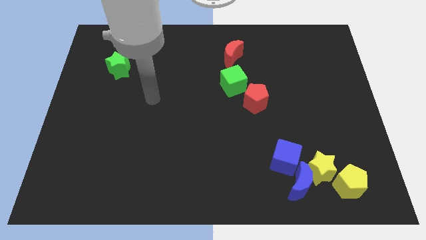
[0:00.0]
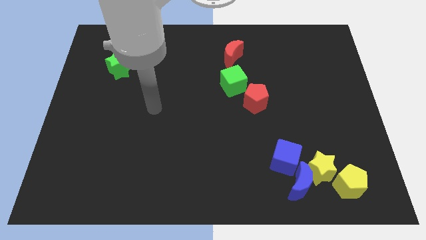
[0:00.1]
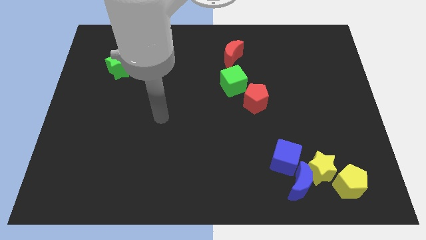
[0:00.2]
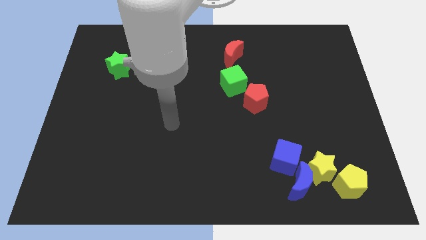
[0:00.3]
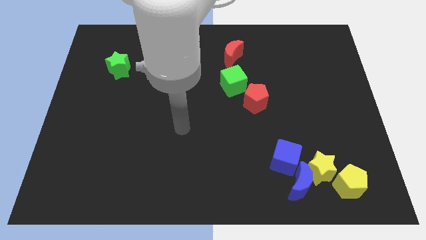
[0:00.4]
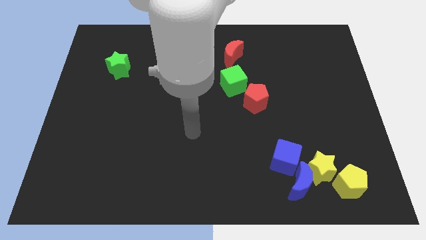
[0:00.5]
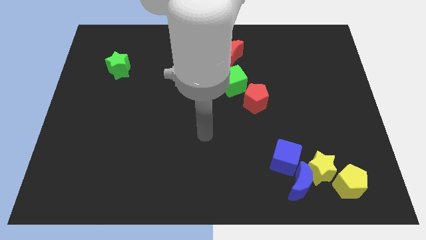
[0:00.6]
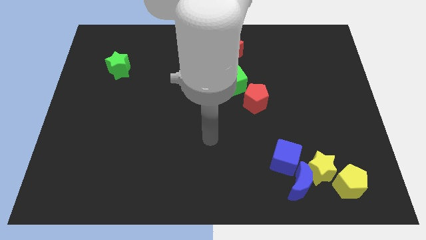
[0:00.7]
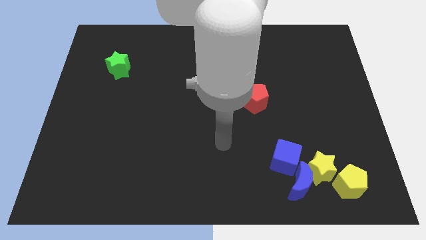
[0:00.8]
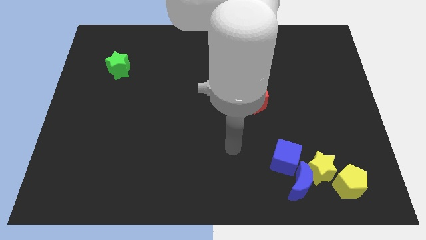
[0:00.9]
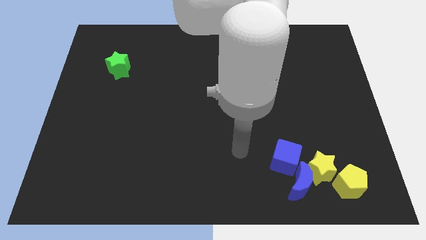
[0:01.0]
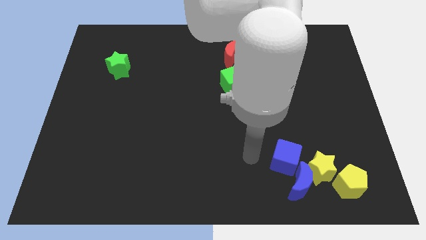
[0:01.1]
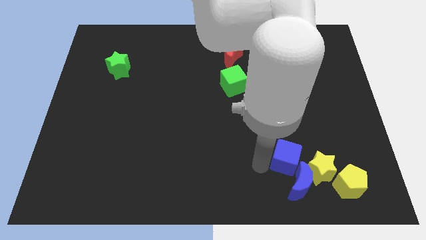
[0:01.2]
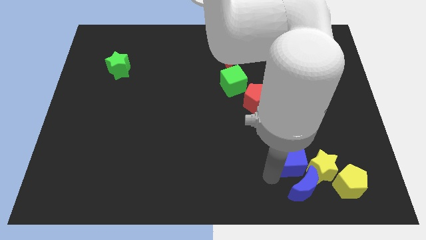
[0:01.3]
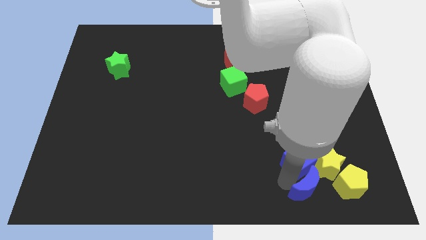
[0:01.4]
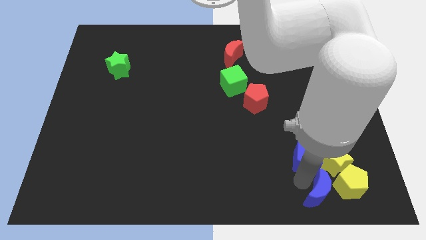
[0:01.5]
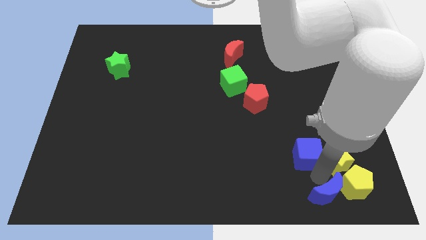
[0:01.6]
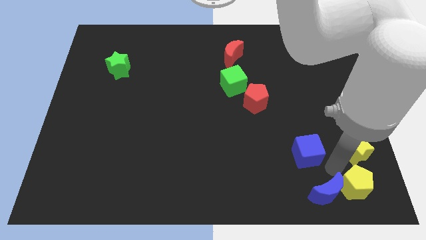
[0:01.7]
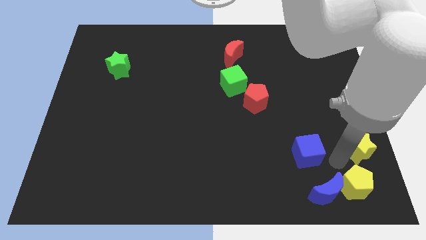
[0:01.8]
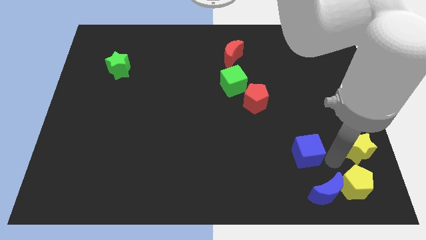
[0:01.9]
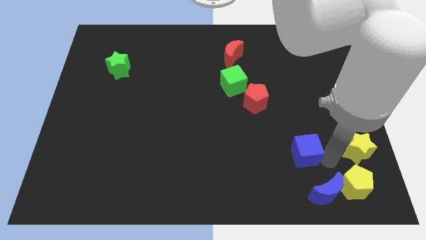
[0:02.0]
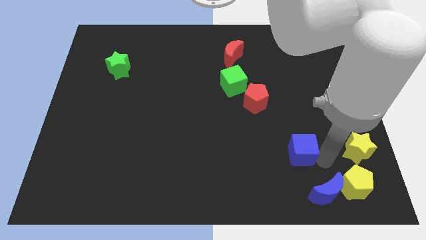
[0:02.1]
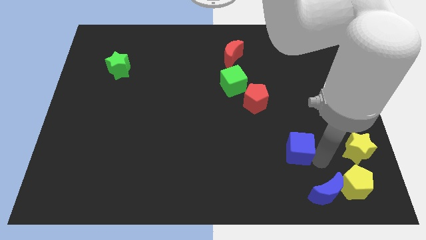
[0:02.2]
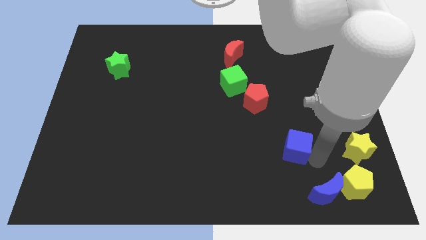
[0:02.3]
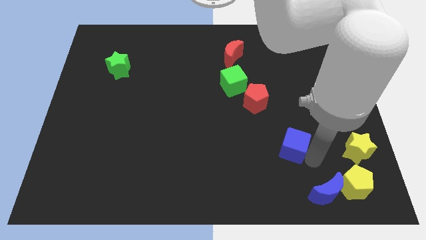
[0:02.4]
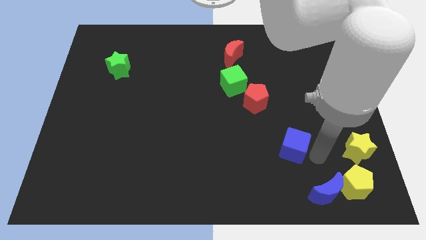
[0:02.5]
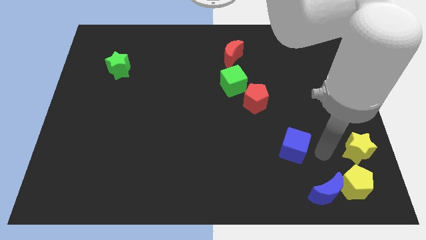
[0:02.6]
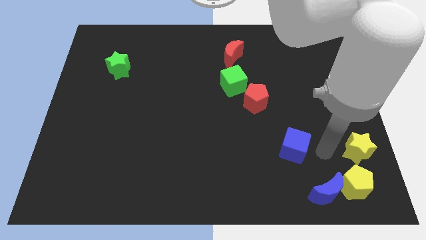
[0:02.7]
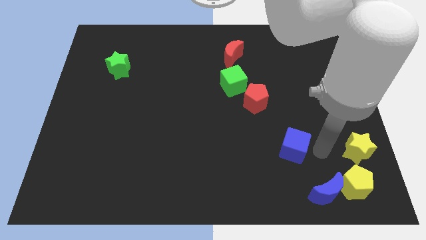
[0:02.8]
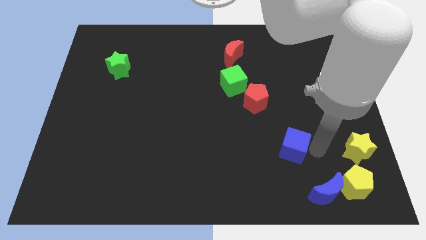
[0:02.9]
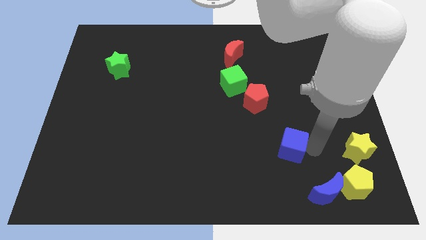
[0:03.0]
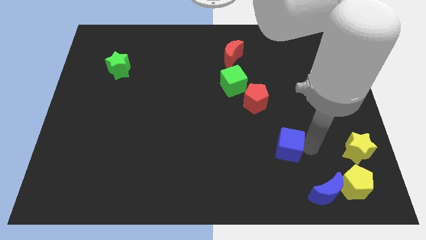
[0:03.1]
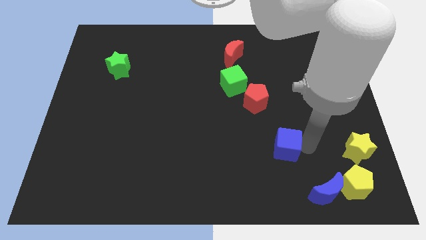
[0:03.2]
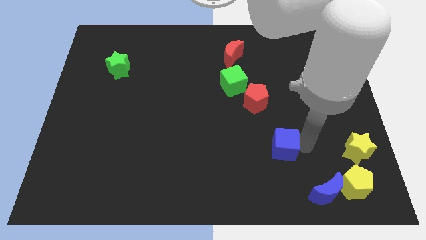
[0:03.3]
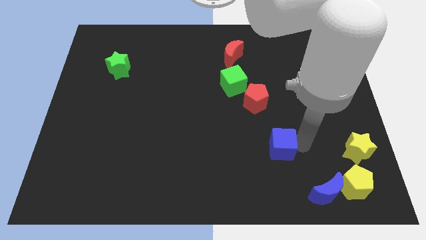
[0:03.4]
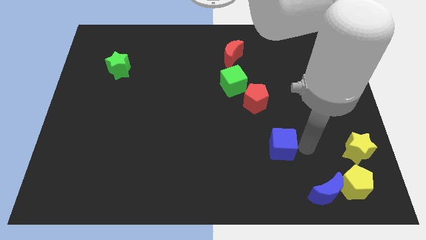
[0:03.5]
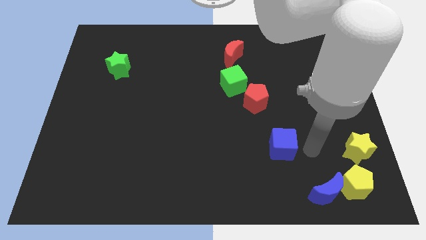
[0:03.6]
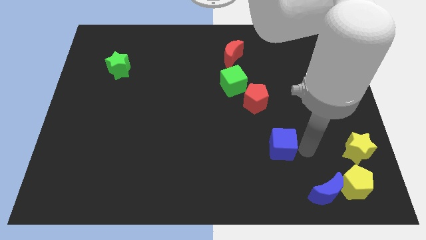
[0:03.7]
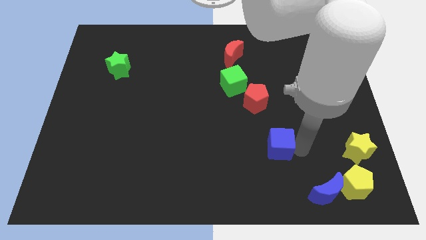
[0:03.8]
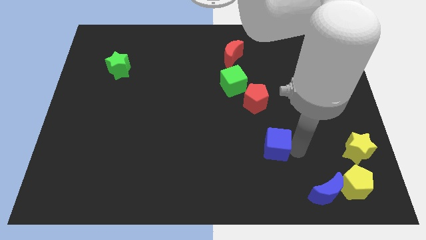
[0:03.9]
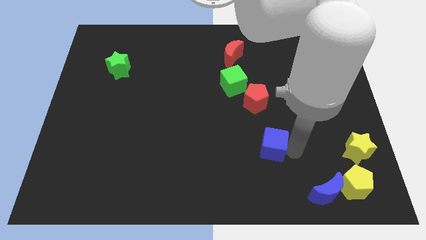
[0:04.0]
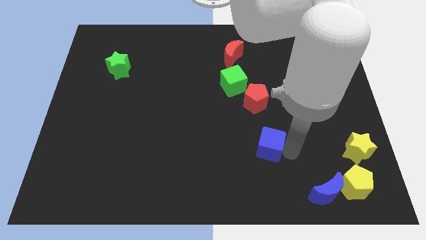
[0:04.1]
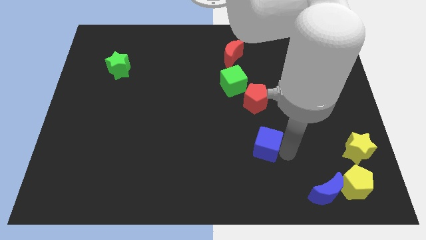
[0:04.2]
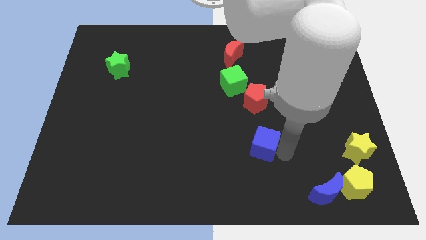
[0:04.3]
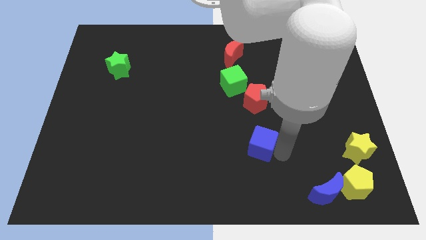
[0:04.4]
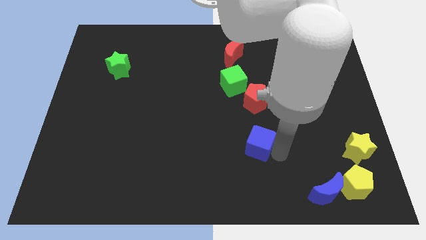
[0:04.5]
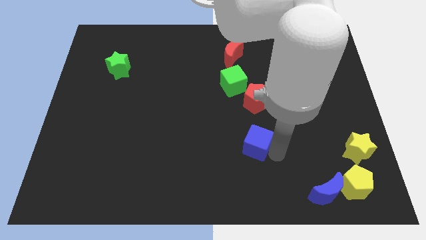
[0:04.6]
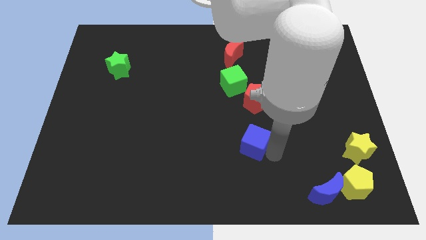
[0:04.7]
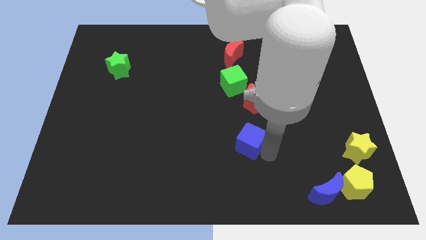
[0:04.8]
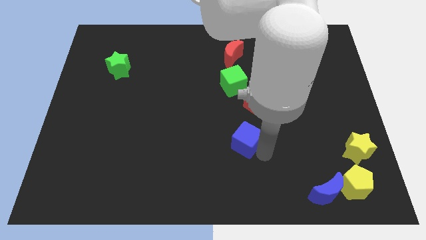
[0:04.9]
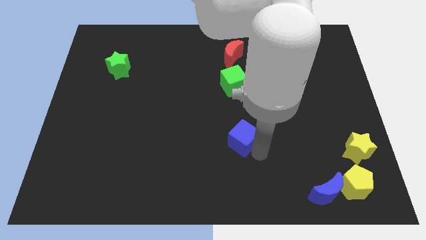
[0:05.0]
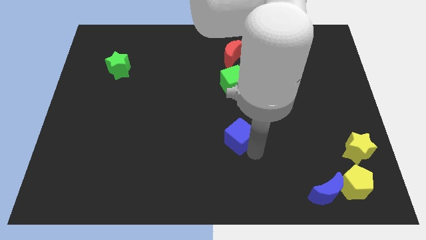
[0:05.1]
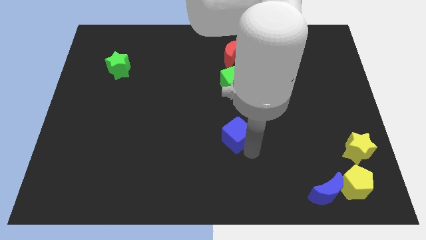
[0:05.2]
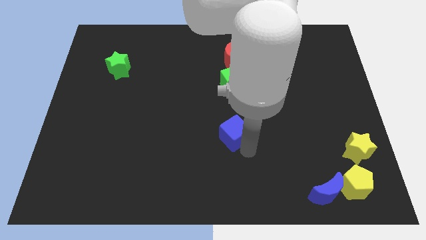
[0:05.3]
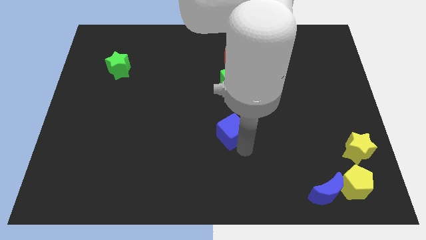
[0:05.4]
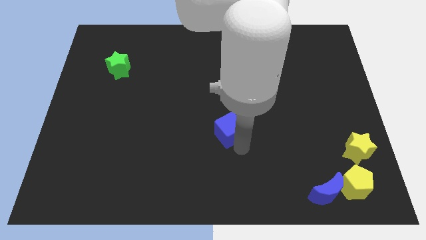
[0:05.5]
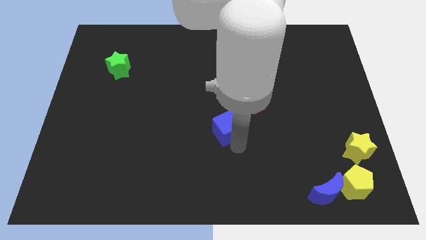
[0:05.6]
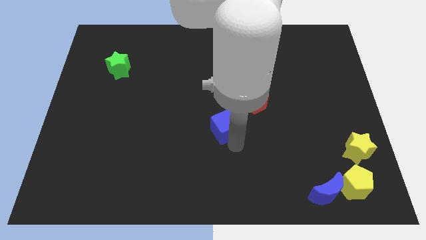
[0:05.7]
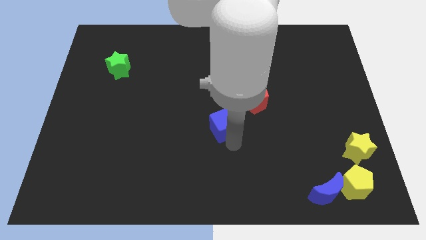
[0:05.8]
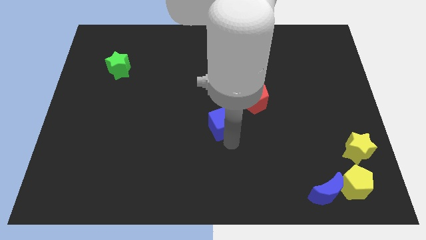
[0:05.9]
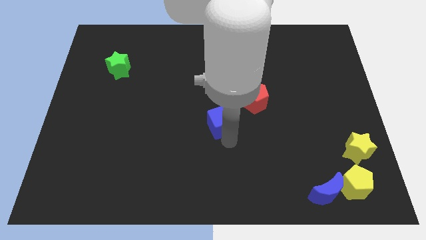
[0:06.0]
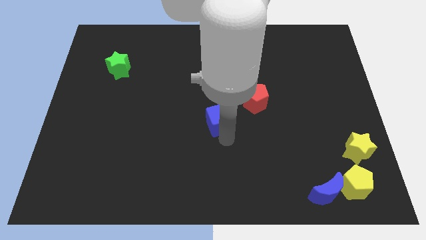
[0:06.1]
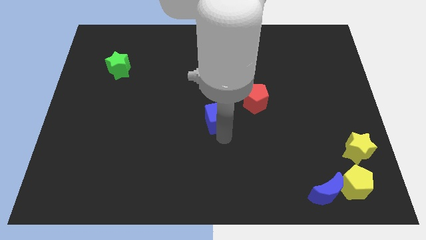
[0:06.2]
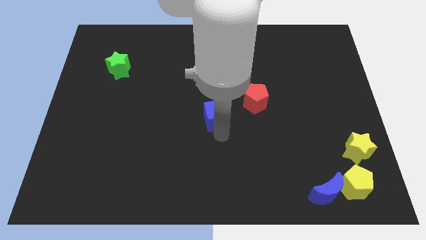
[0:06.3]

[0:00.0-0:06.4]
put the blue cube diagonally down and to the left of the green cube
